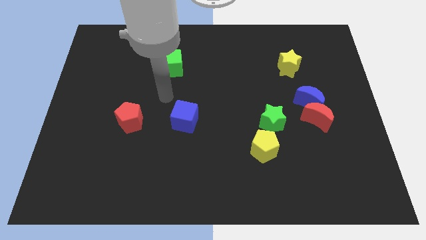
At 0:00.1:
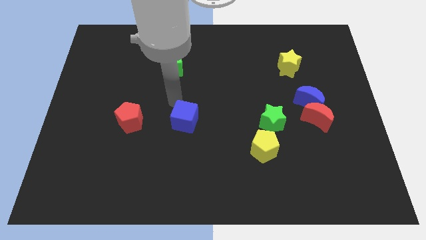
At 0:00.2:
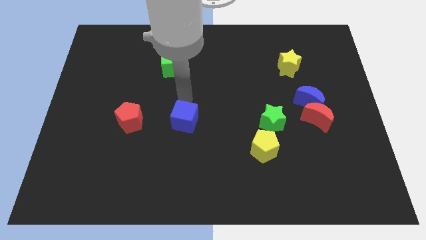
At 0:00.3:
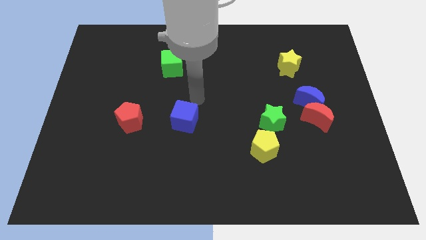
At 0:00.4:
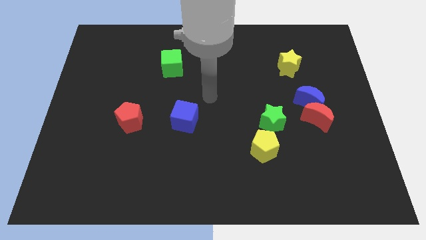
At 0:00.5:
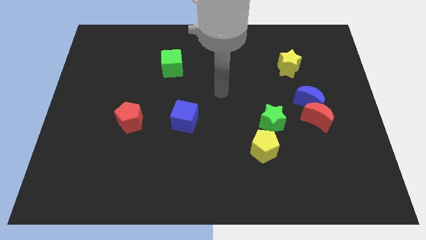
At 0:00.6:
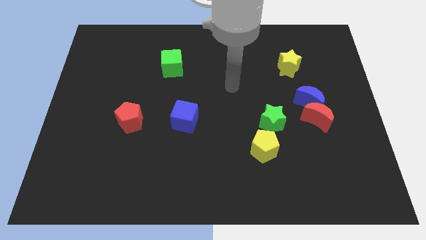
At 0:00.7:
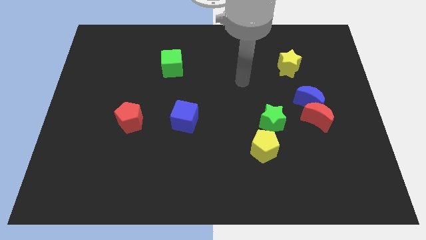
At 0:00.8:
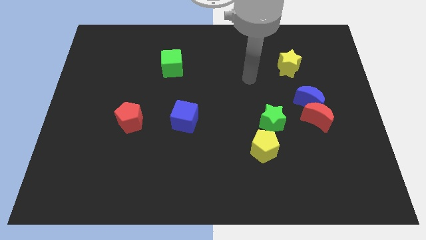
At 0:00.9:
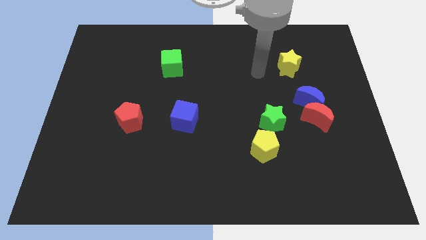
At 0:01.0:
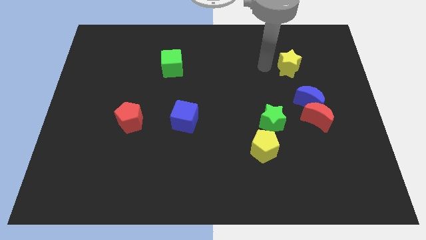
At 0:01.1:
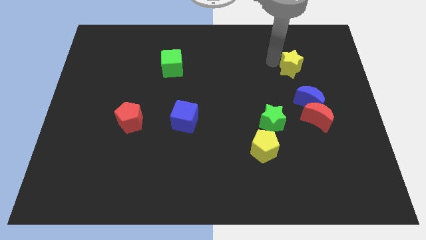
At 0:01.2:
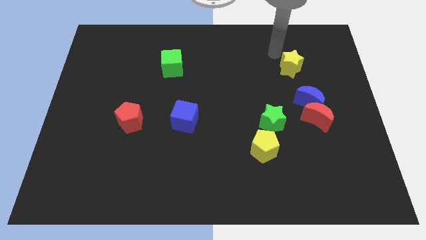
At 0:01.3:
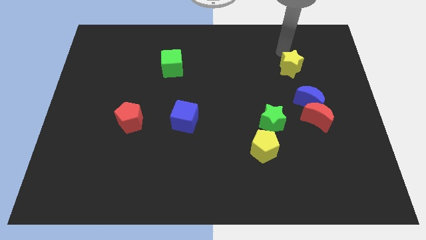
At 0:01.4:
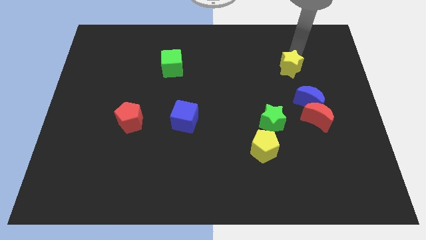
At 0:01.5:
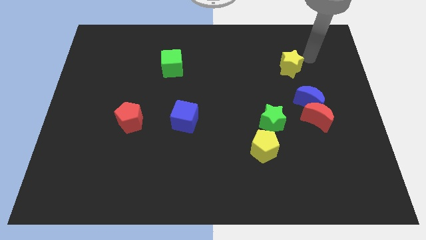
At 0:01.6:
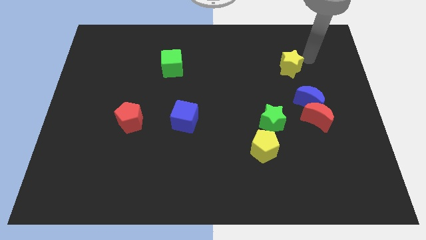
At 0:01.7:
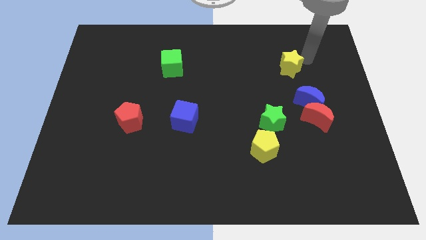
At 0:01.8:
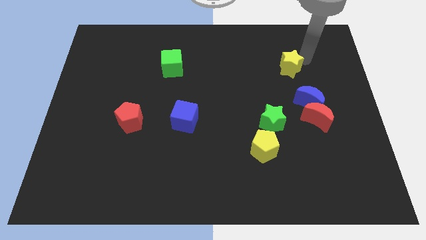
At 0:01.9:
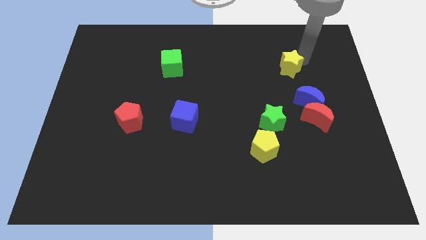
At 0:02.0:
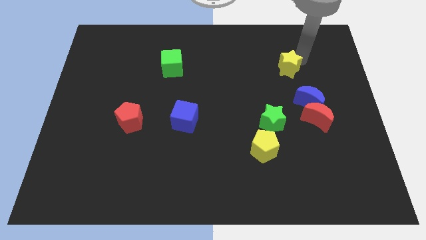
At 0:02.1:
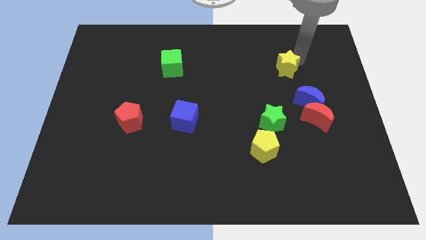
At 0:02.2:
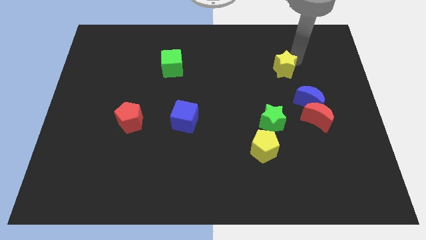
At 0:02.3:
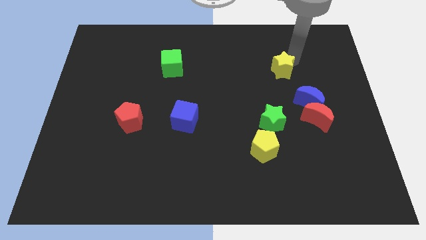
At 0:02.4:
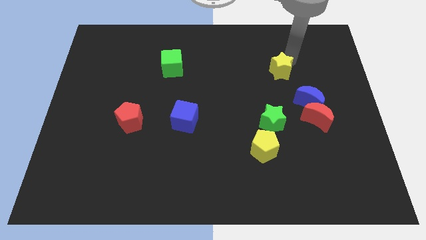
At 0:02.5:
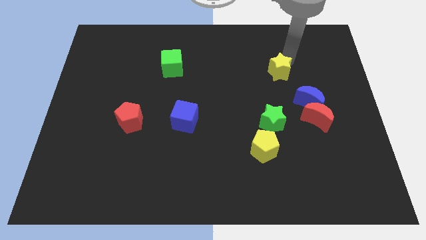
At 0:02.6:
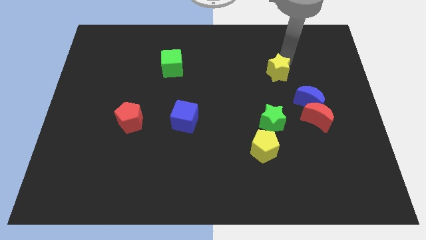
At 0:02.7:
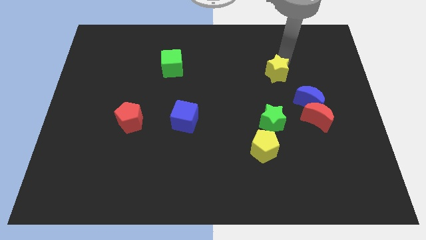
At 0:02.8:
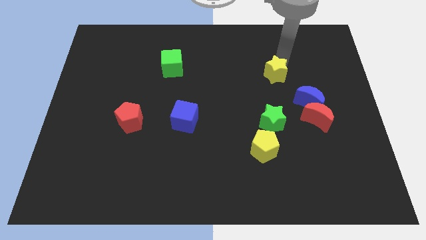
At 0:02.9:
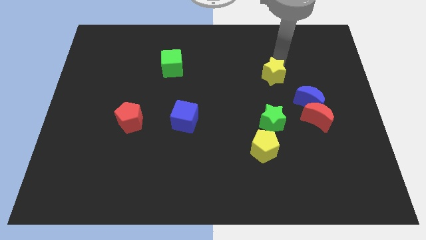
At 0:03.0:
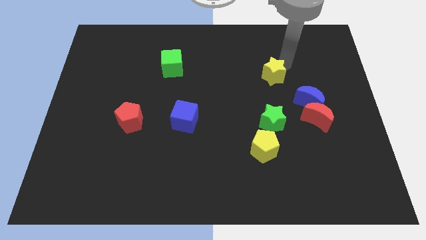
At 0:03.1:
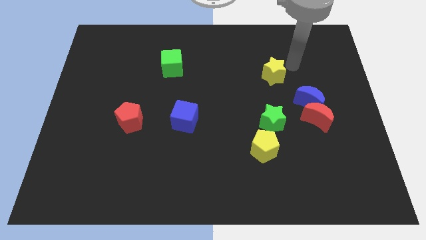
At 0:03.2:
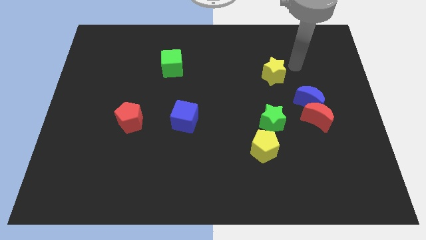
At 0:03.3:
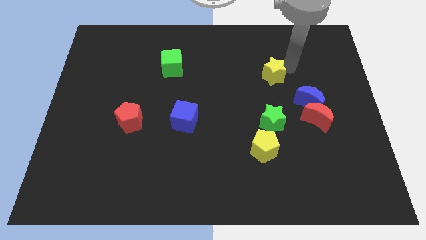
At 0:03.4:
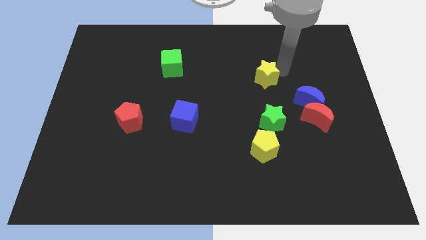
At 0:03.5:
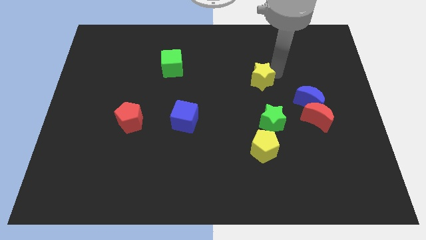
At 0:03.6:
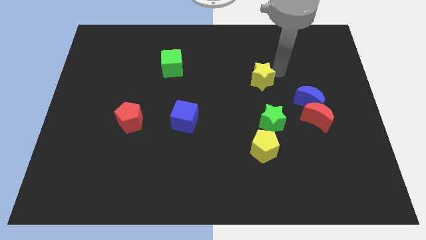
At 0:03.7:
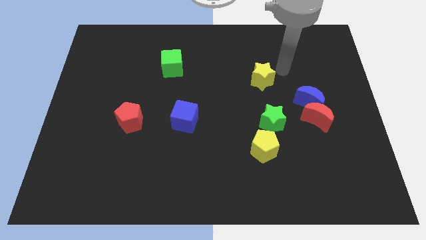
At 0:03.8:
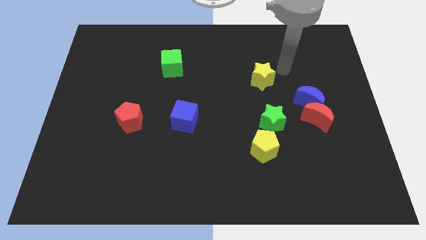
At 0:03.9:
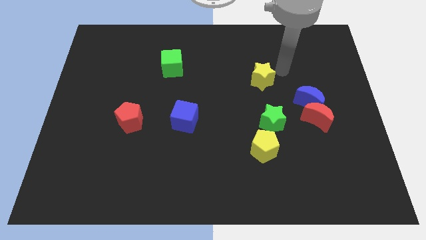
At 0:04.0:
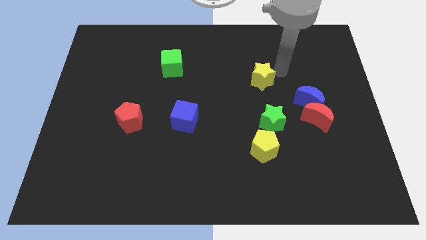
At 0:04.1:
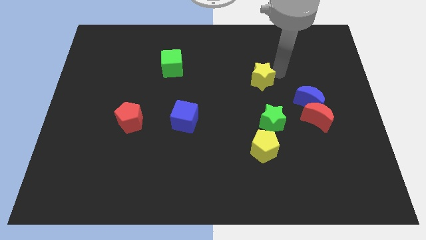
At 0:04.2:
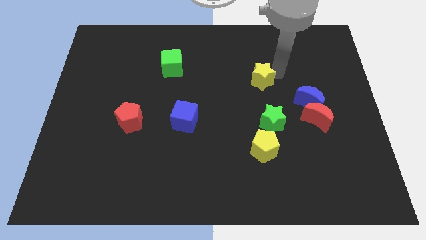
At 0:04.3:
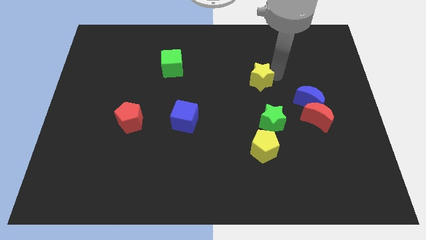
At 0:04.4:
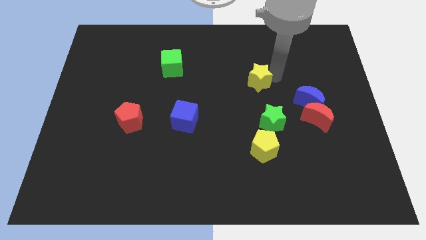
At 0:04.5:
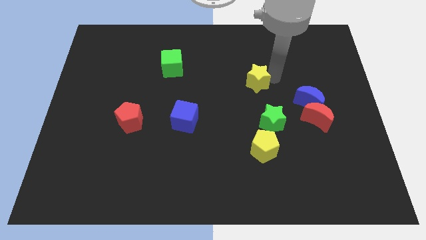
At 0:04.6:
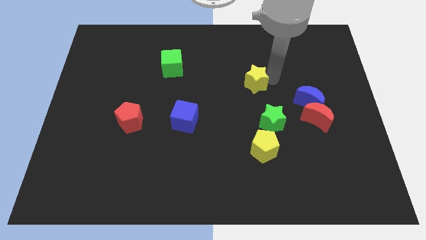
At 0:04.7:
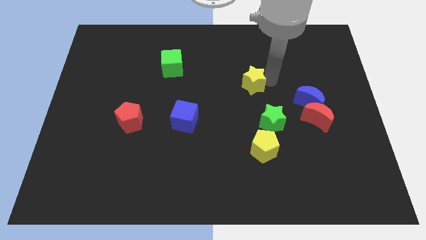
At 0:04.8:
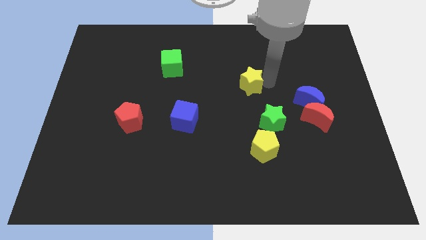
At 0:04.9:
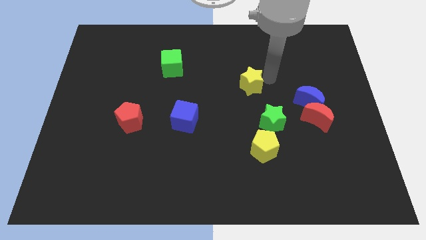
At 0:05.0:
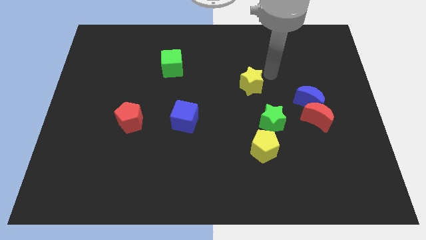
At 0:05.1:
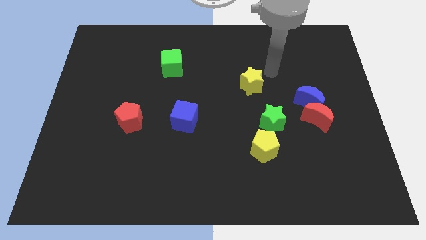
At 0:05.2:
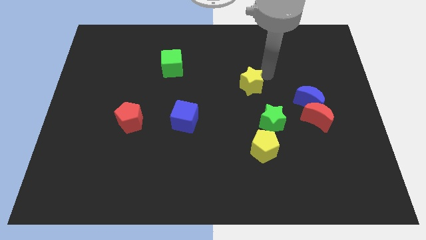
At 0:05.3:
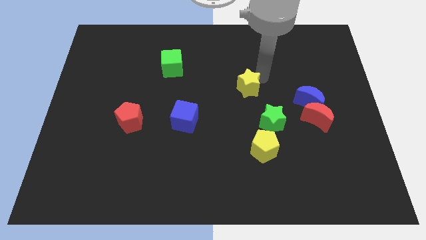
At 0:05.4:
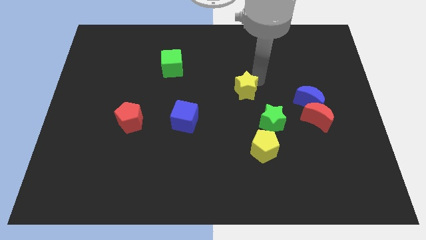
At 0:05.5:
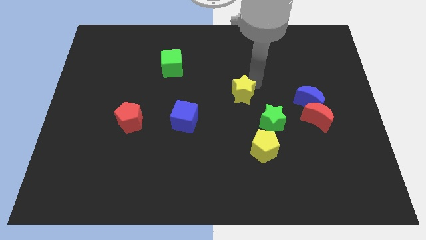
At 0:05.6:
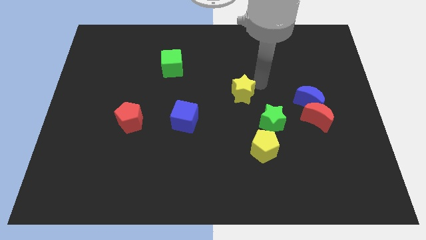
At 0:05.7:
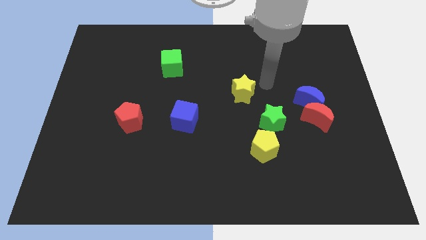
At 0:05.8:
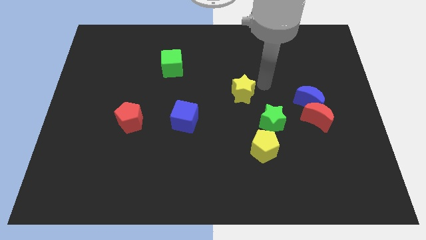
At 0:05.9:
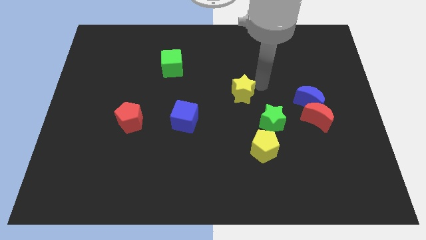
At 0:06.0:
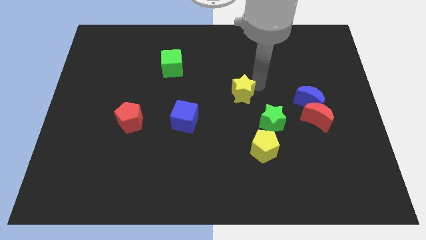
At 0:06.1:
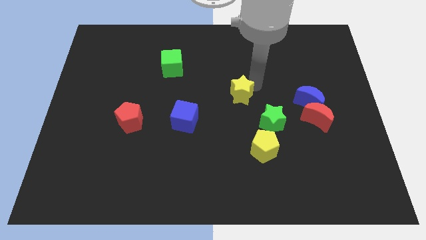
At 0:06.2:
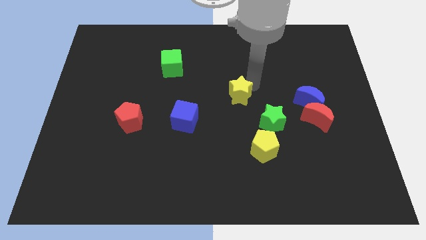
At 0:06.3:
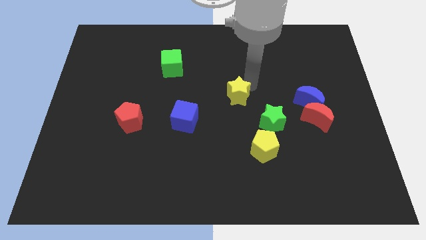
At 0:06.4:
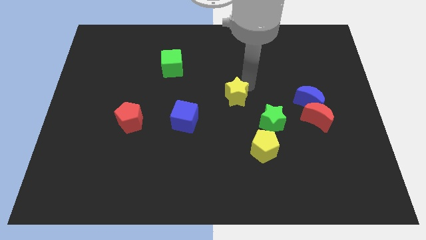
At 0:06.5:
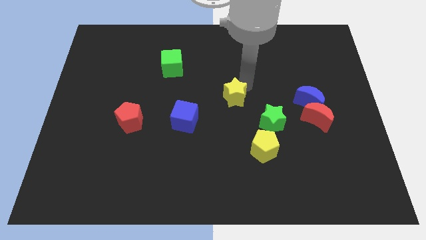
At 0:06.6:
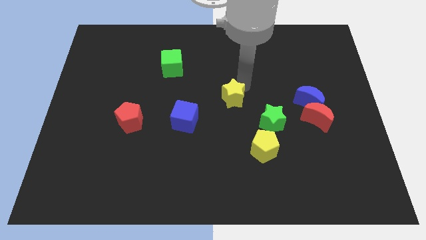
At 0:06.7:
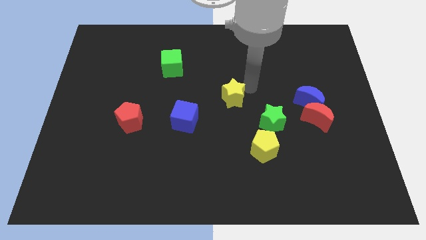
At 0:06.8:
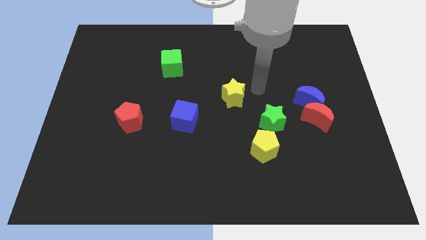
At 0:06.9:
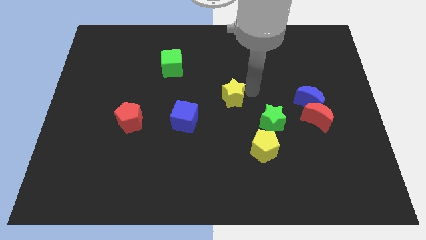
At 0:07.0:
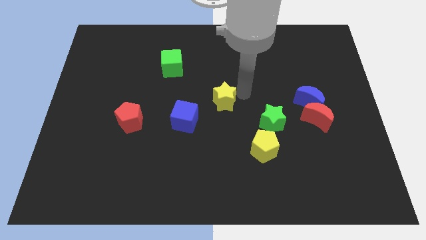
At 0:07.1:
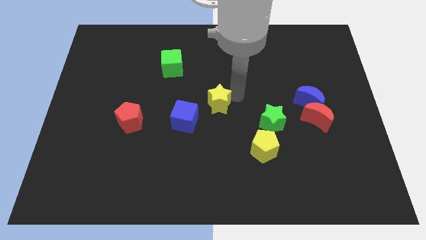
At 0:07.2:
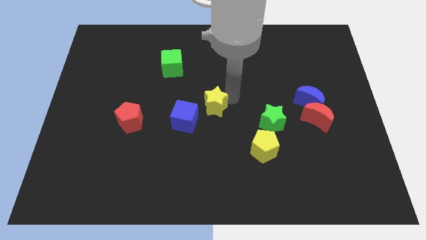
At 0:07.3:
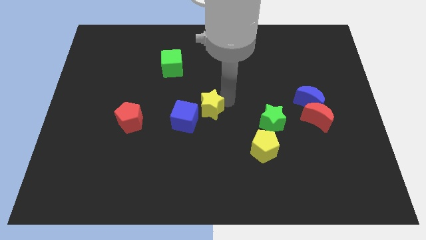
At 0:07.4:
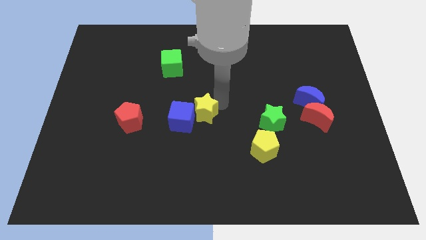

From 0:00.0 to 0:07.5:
slide the yellow star to the blue cube
